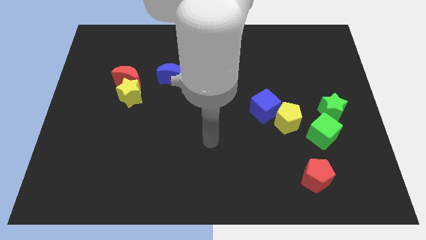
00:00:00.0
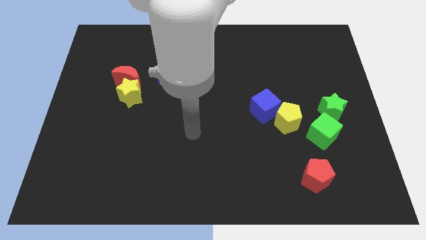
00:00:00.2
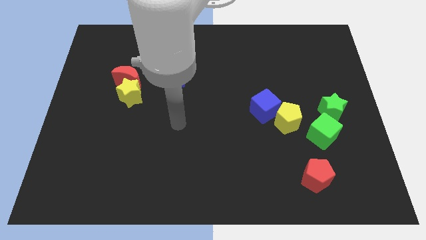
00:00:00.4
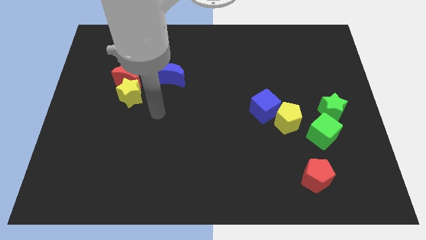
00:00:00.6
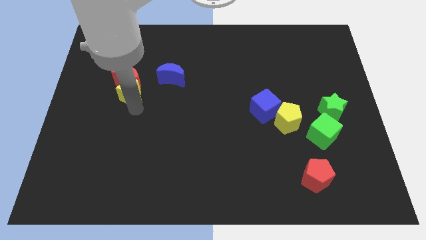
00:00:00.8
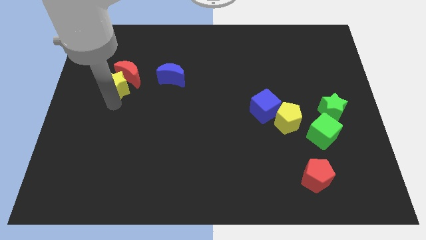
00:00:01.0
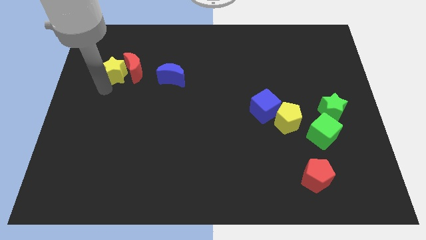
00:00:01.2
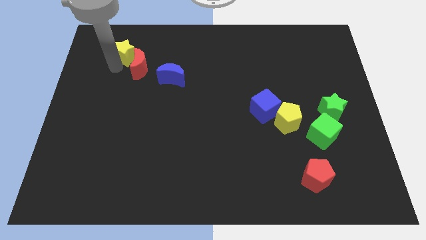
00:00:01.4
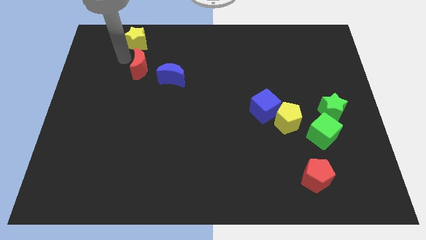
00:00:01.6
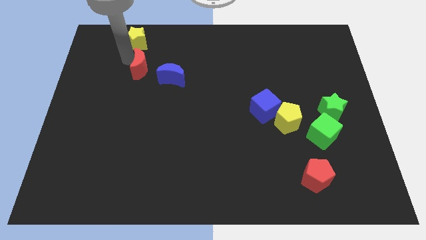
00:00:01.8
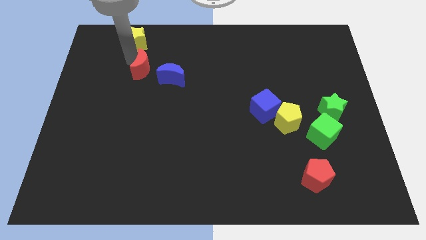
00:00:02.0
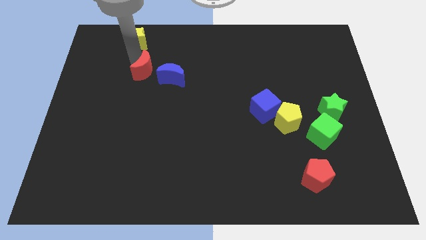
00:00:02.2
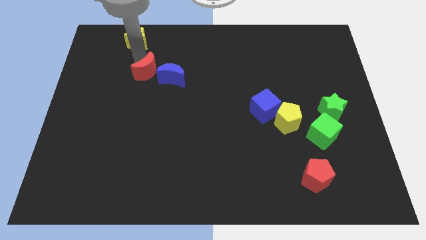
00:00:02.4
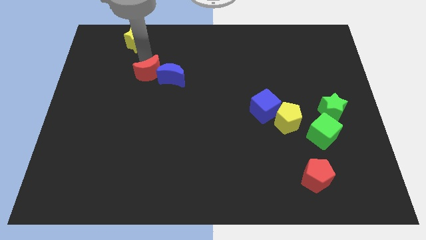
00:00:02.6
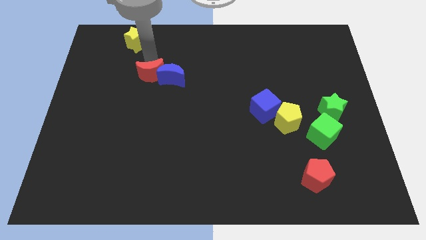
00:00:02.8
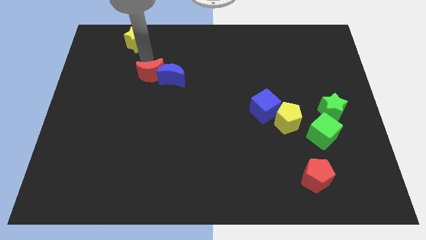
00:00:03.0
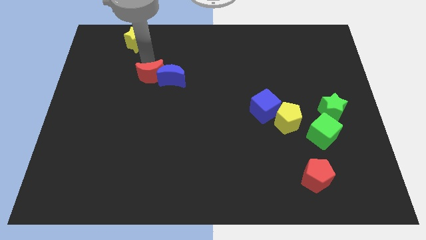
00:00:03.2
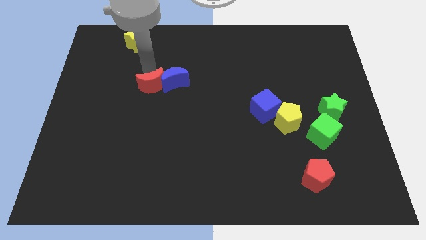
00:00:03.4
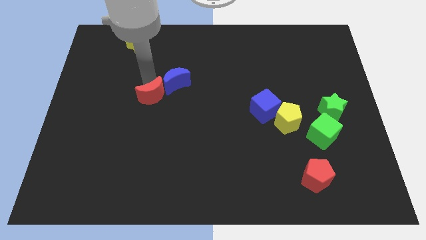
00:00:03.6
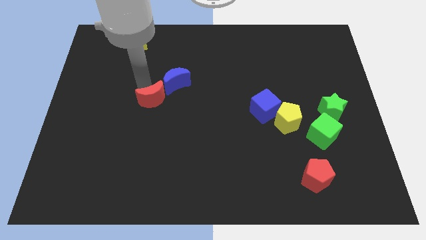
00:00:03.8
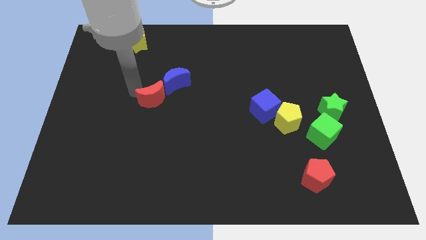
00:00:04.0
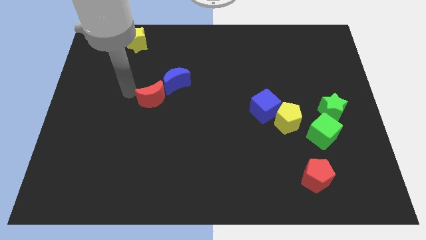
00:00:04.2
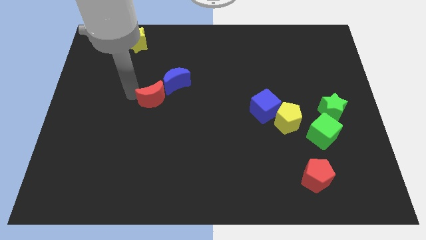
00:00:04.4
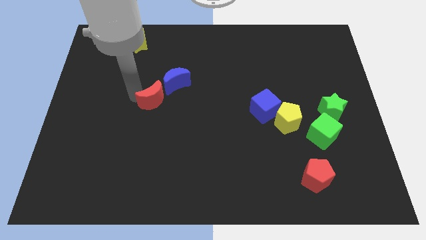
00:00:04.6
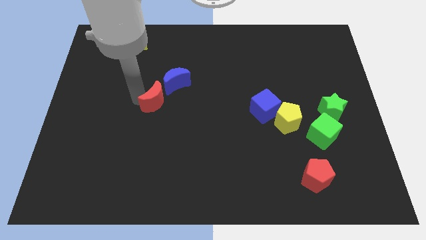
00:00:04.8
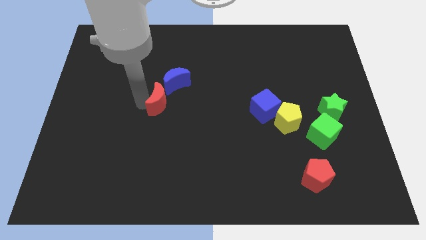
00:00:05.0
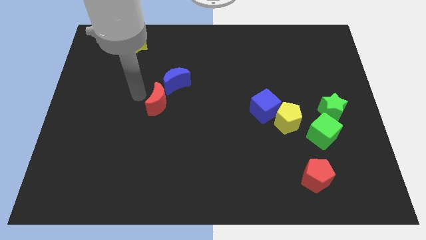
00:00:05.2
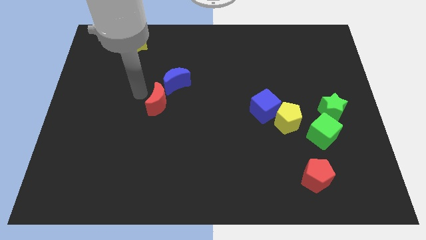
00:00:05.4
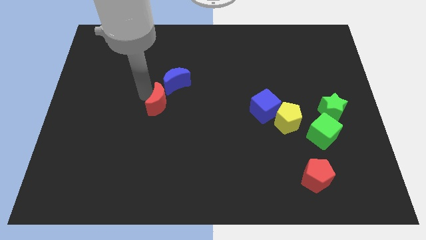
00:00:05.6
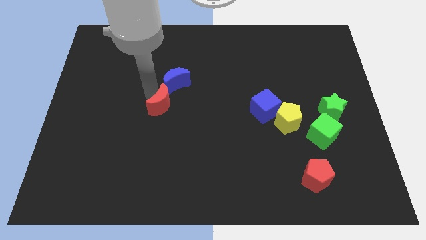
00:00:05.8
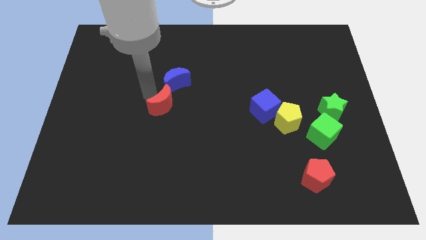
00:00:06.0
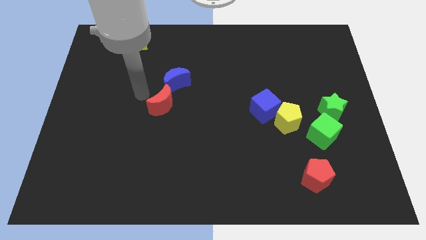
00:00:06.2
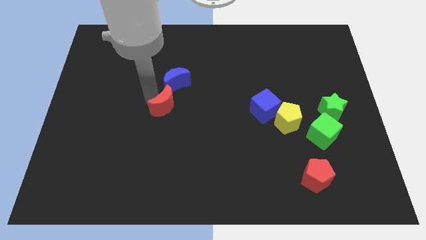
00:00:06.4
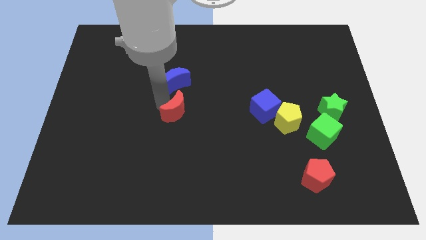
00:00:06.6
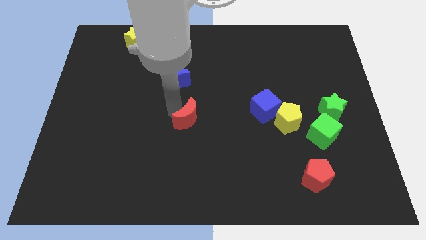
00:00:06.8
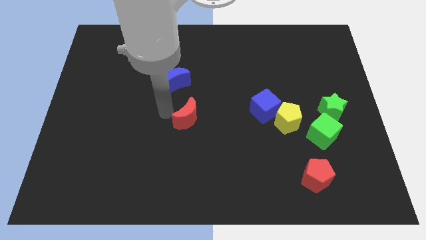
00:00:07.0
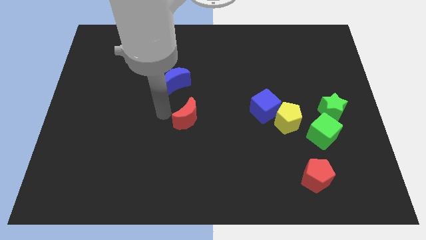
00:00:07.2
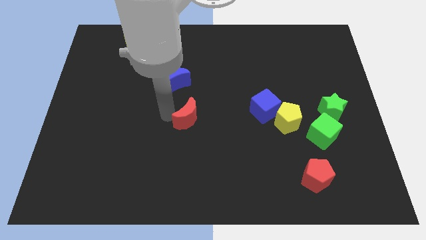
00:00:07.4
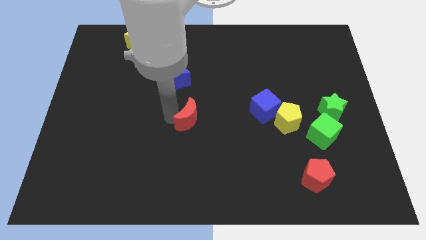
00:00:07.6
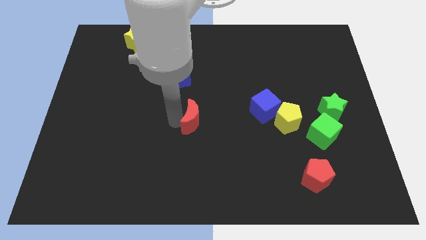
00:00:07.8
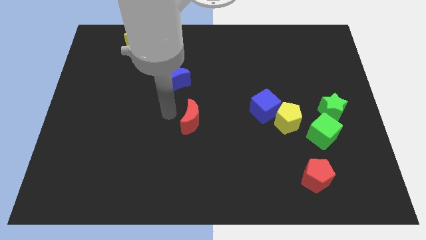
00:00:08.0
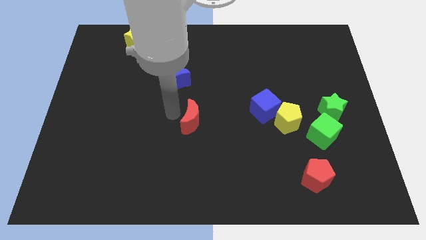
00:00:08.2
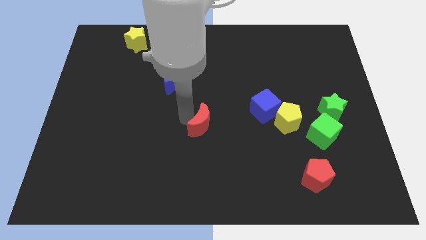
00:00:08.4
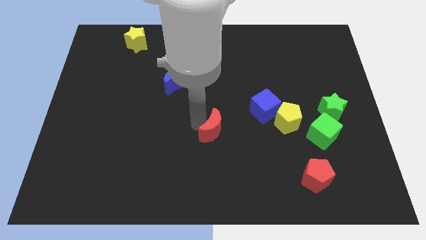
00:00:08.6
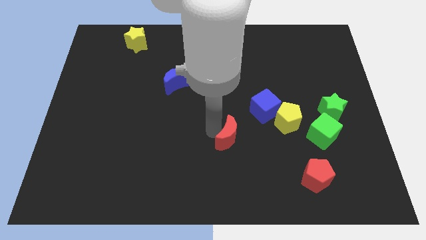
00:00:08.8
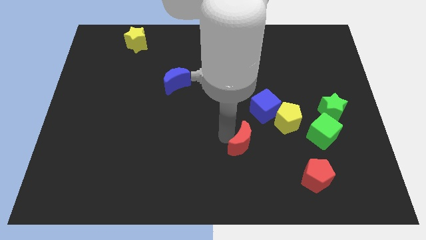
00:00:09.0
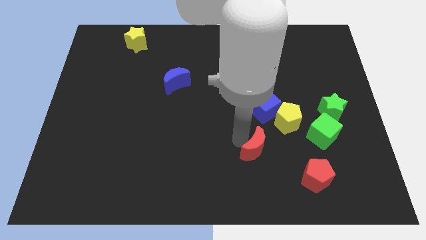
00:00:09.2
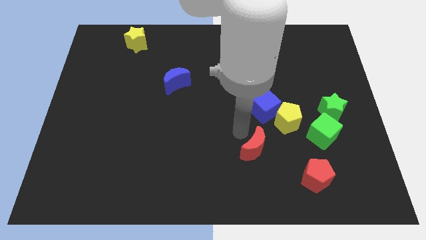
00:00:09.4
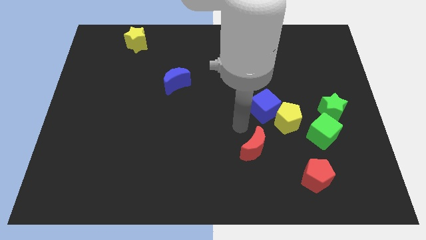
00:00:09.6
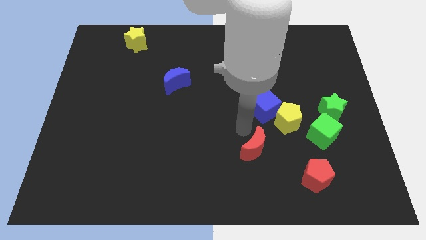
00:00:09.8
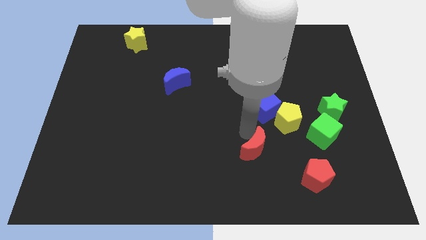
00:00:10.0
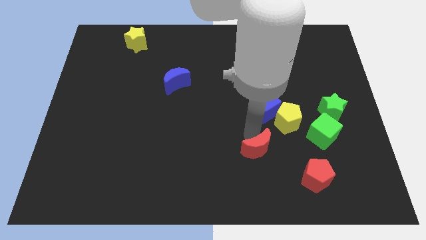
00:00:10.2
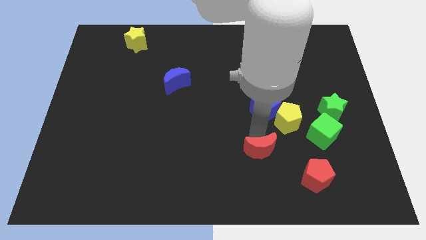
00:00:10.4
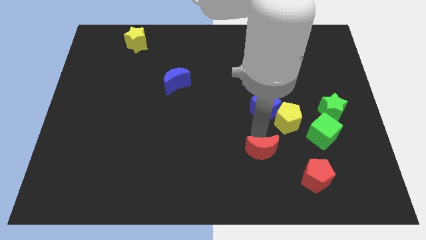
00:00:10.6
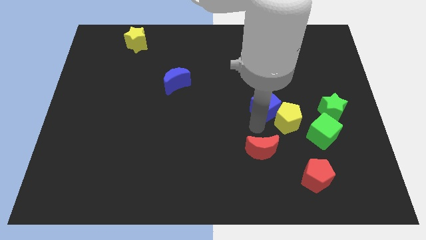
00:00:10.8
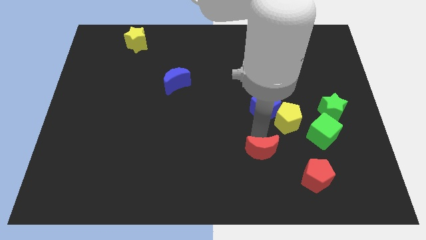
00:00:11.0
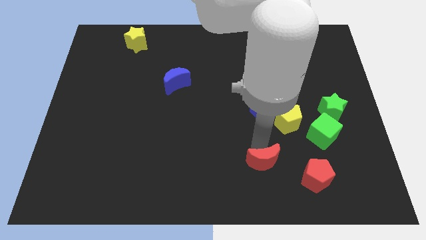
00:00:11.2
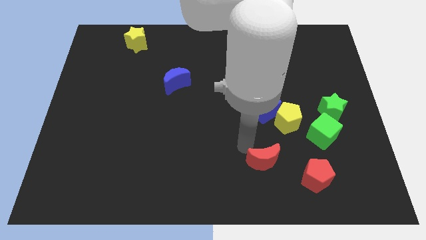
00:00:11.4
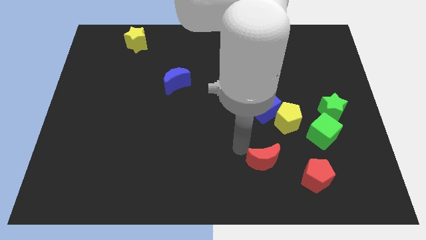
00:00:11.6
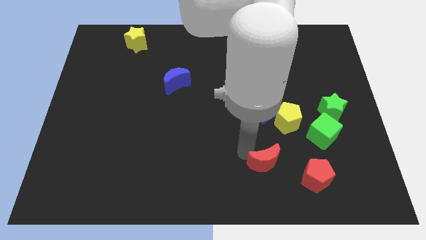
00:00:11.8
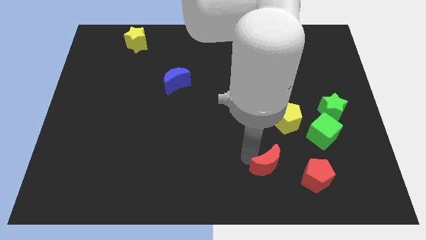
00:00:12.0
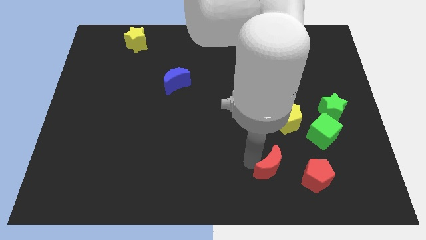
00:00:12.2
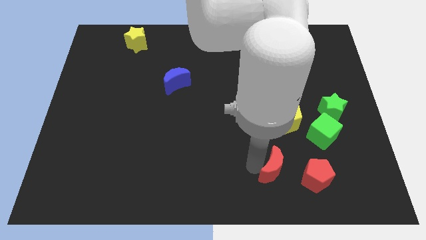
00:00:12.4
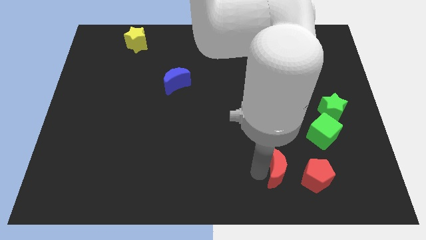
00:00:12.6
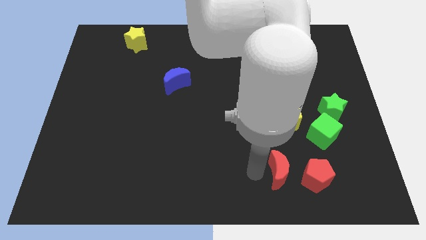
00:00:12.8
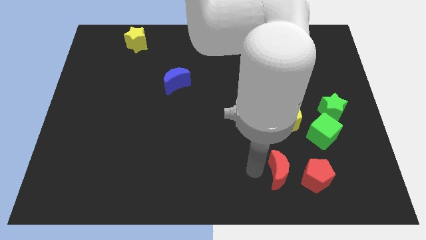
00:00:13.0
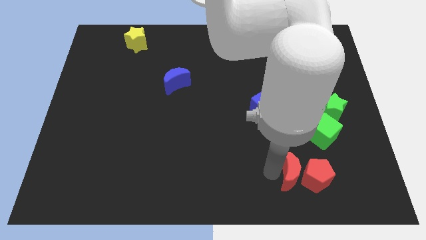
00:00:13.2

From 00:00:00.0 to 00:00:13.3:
slide the red moon next to the red pentagon
